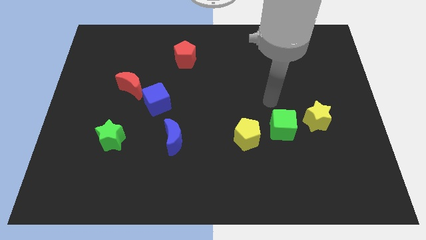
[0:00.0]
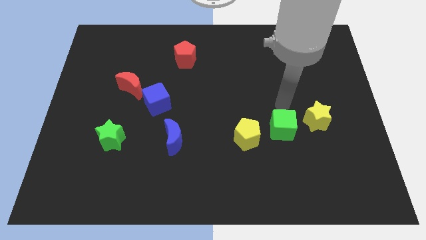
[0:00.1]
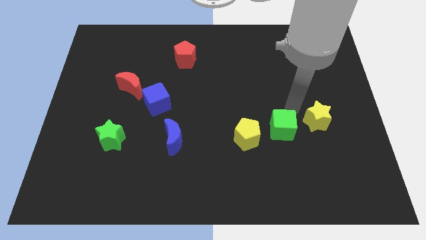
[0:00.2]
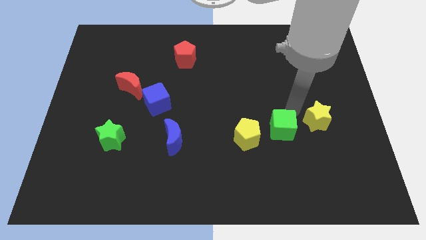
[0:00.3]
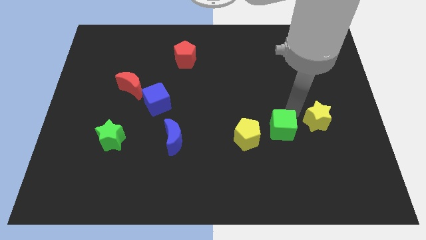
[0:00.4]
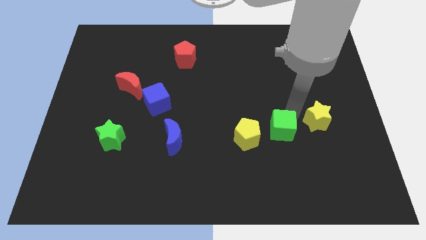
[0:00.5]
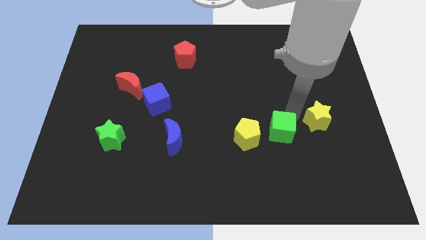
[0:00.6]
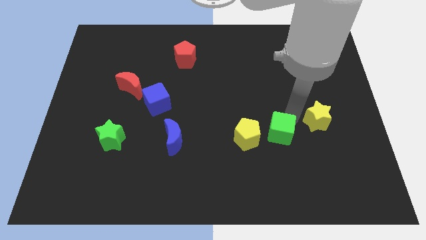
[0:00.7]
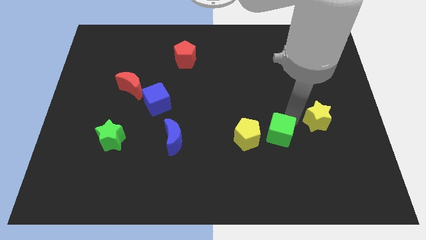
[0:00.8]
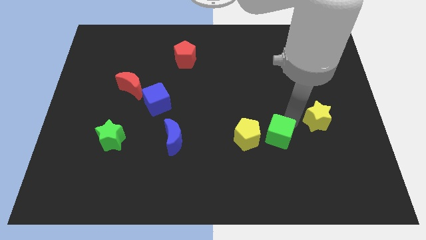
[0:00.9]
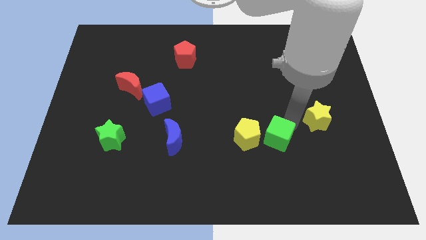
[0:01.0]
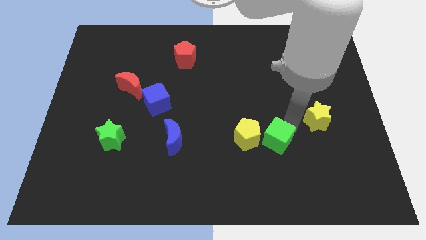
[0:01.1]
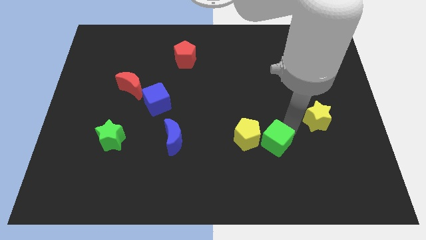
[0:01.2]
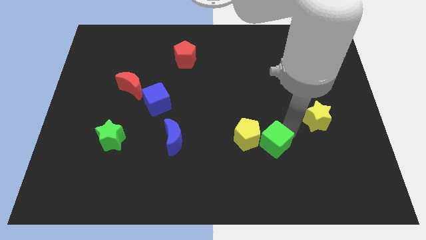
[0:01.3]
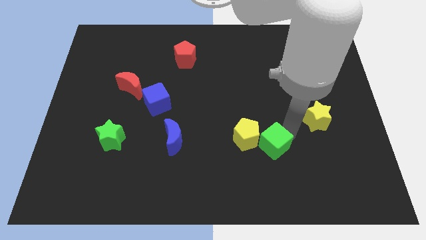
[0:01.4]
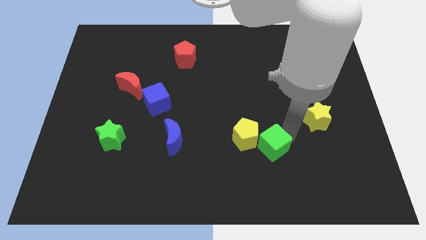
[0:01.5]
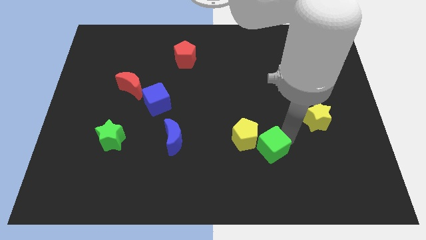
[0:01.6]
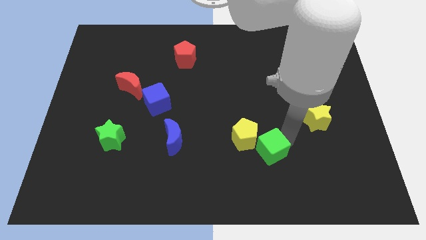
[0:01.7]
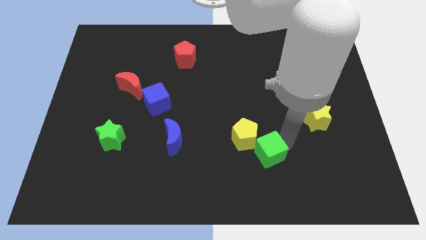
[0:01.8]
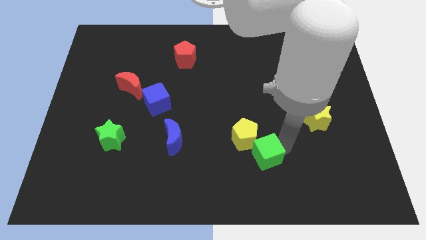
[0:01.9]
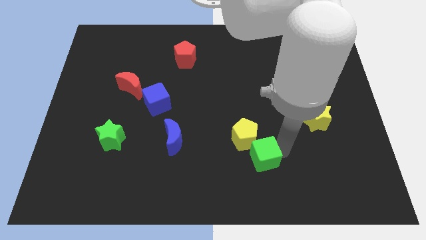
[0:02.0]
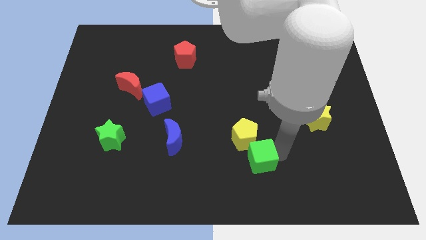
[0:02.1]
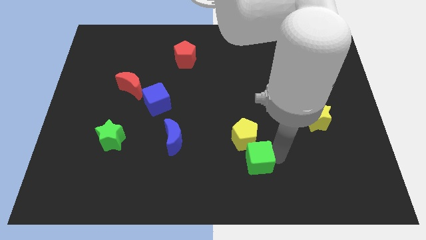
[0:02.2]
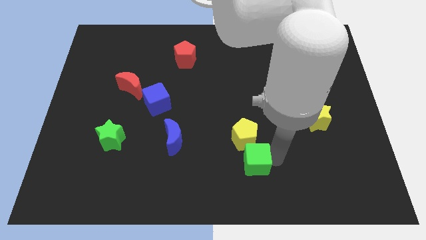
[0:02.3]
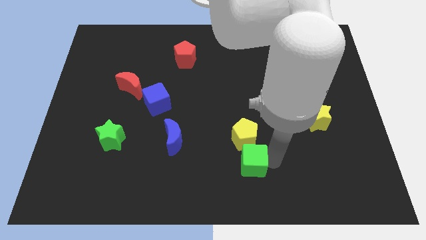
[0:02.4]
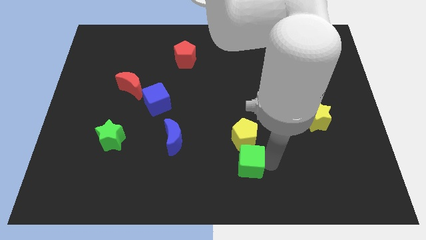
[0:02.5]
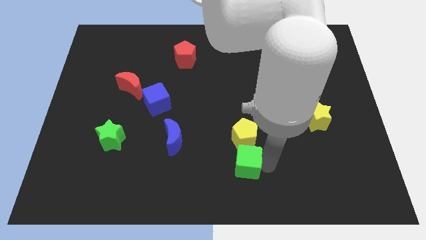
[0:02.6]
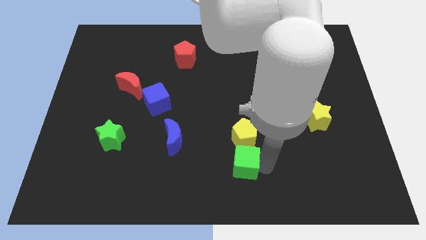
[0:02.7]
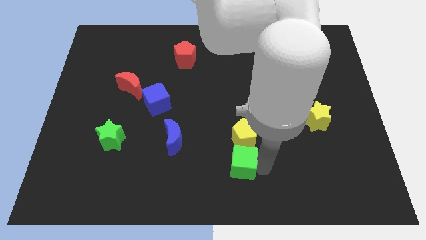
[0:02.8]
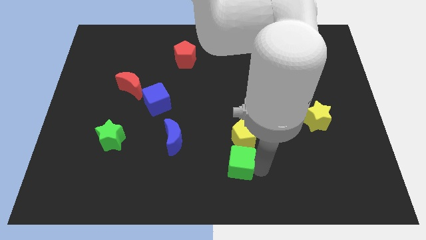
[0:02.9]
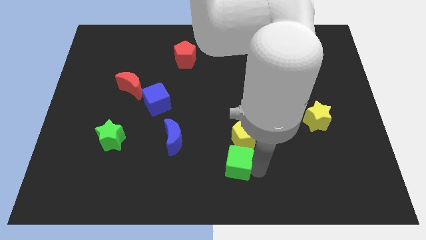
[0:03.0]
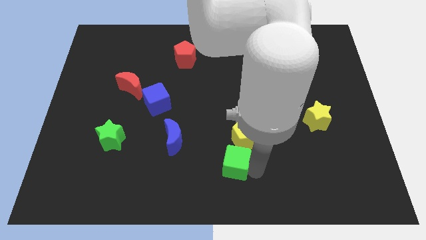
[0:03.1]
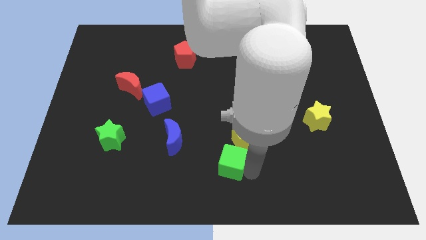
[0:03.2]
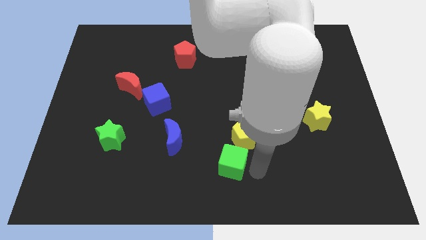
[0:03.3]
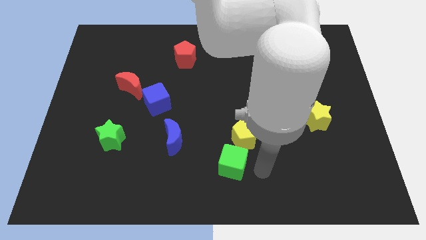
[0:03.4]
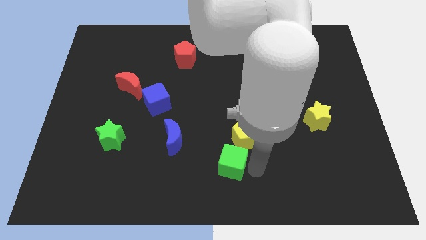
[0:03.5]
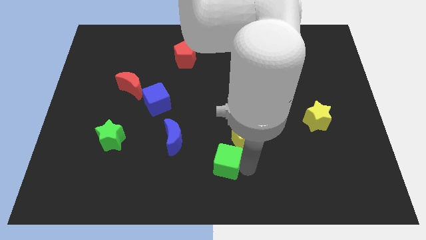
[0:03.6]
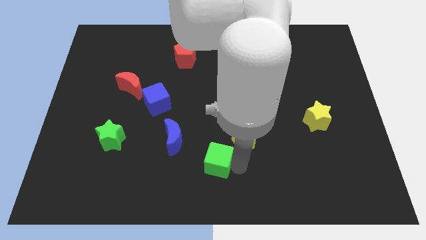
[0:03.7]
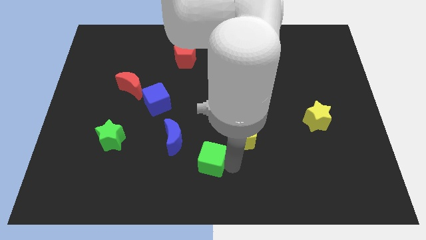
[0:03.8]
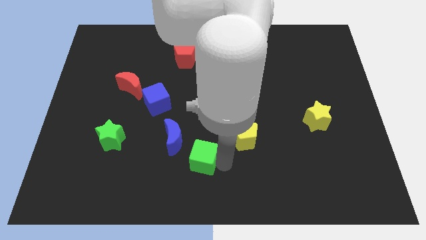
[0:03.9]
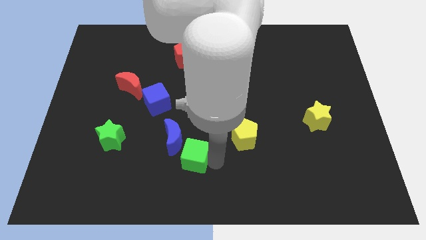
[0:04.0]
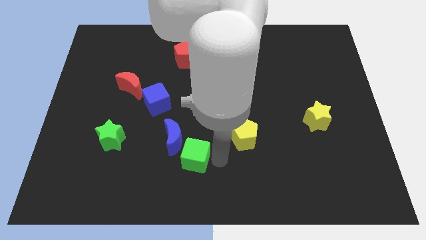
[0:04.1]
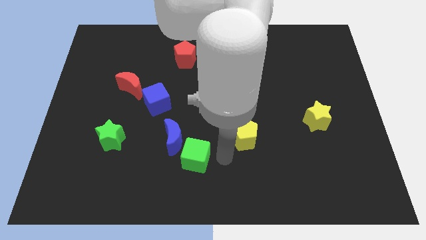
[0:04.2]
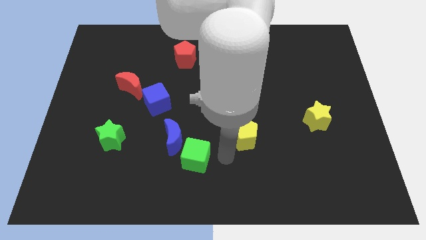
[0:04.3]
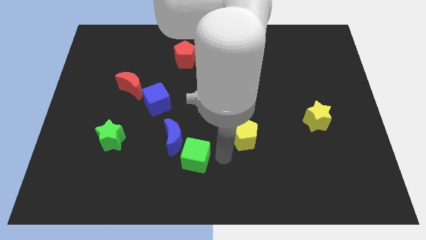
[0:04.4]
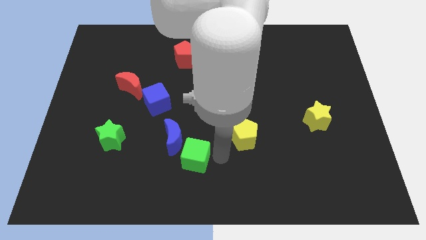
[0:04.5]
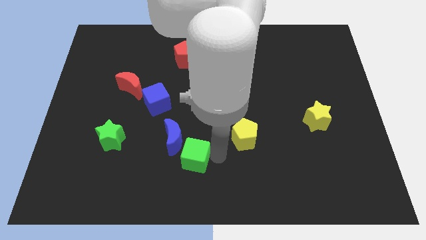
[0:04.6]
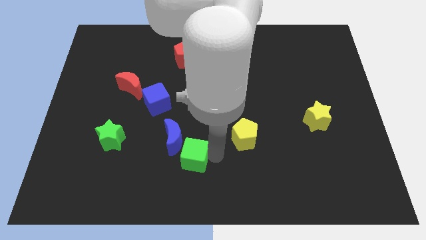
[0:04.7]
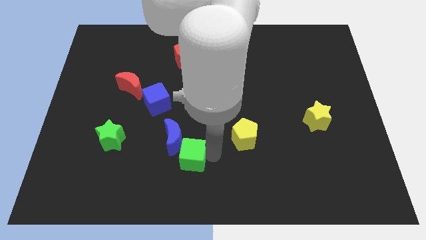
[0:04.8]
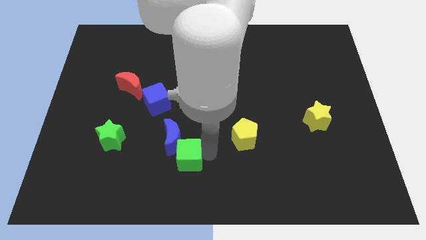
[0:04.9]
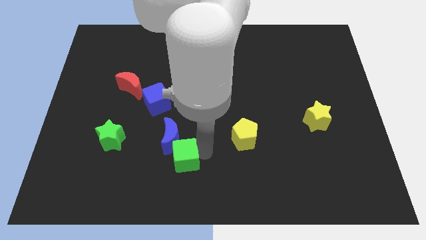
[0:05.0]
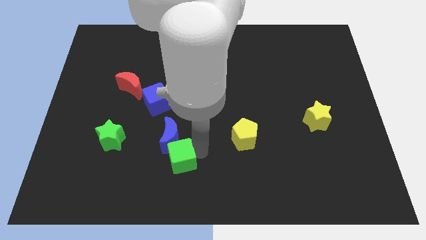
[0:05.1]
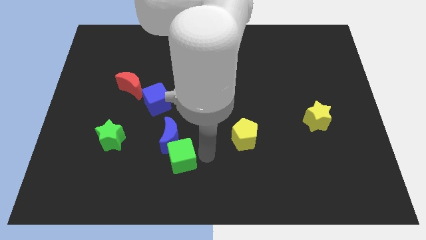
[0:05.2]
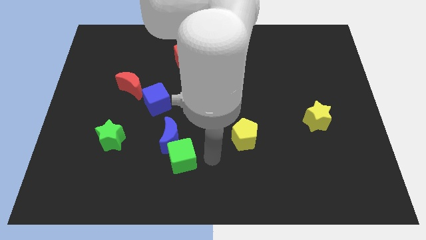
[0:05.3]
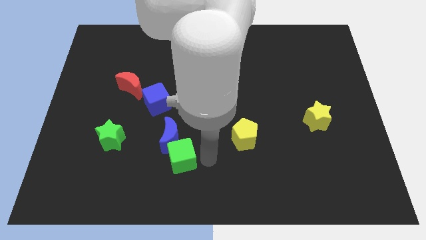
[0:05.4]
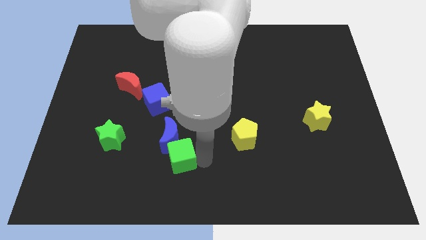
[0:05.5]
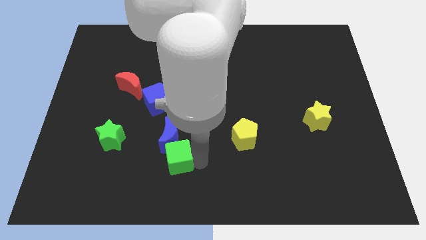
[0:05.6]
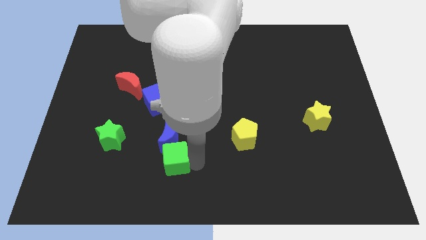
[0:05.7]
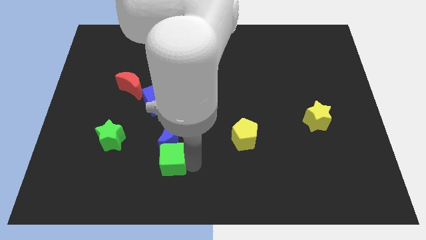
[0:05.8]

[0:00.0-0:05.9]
push the green cube diagonally down and to the left of the blue moon

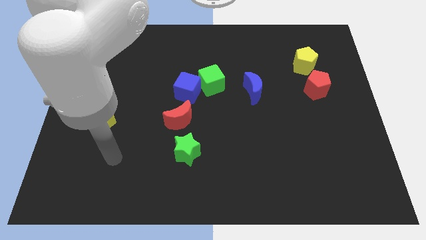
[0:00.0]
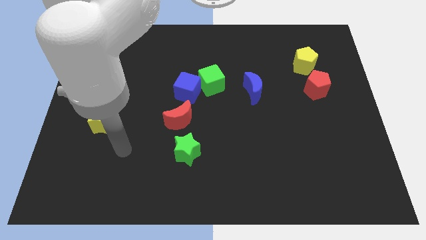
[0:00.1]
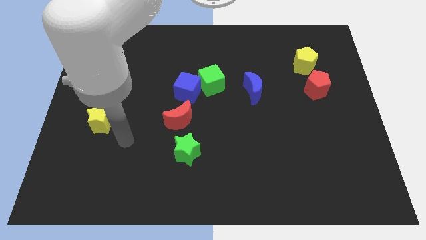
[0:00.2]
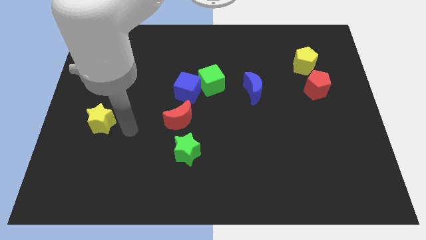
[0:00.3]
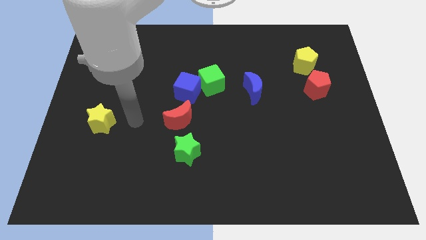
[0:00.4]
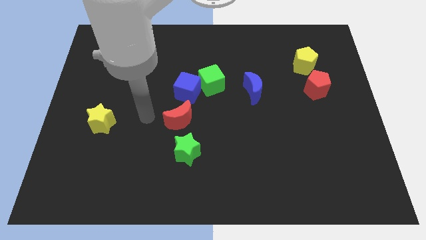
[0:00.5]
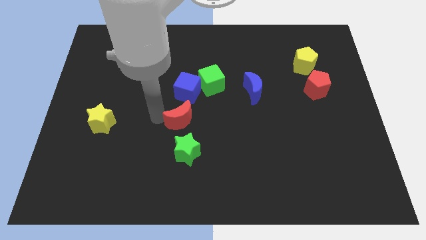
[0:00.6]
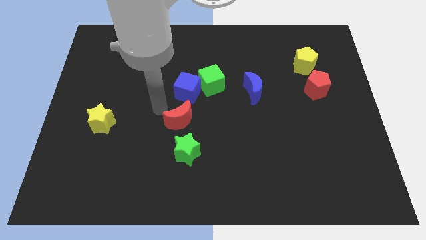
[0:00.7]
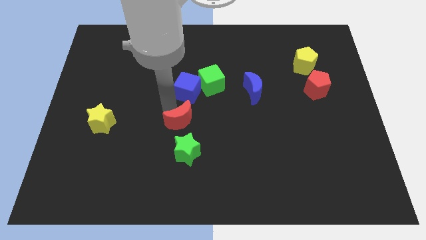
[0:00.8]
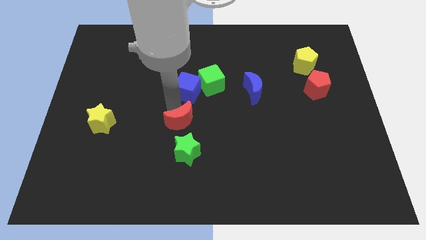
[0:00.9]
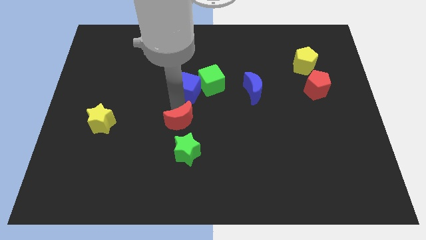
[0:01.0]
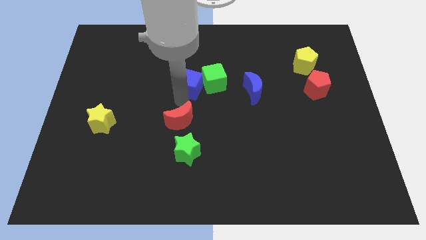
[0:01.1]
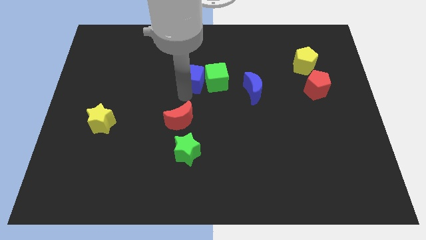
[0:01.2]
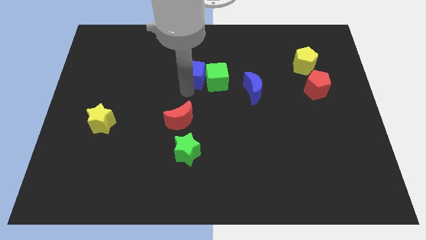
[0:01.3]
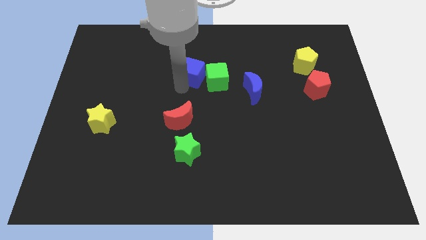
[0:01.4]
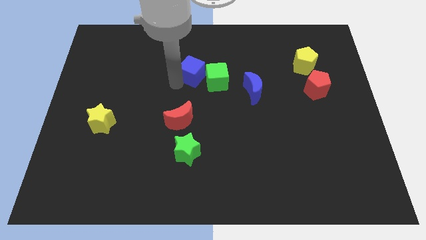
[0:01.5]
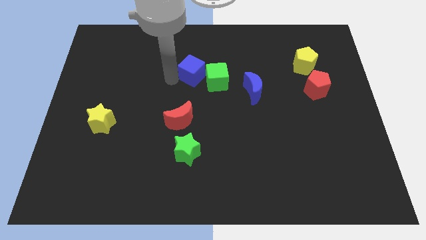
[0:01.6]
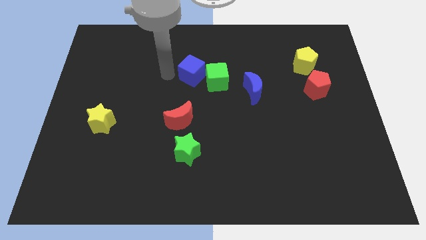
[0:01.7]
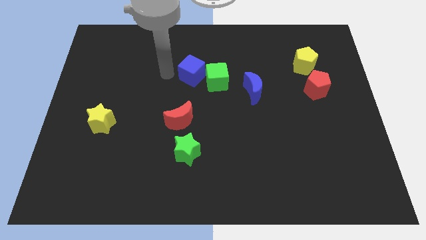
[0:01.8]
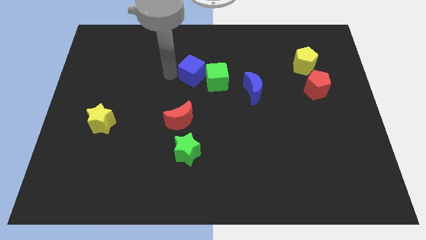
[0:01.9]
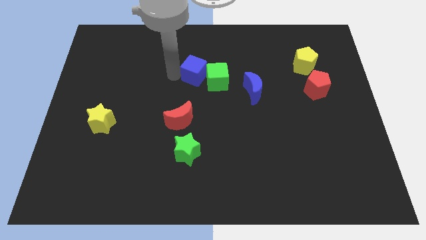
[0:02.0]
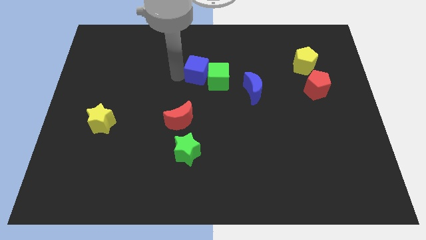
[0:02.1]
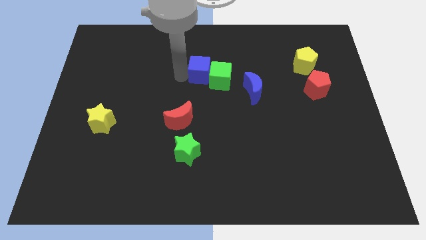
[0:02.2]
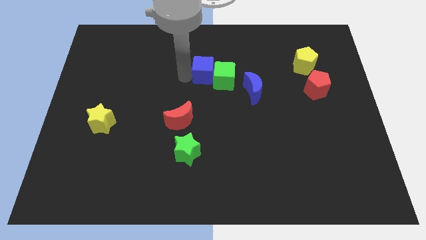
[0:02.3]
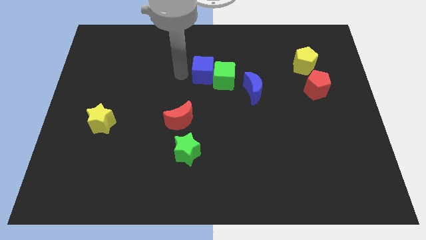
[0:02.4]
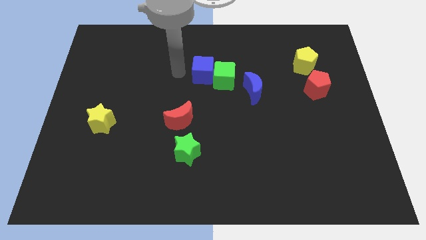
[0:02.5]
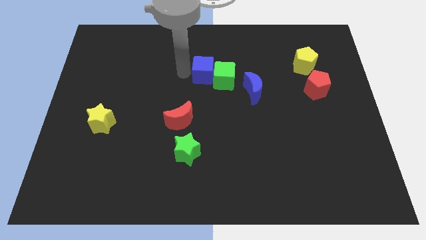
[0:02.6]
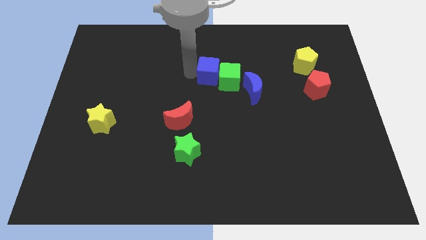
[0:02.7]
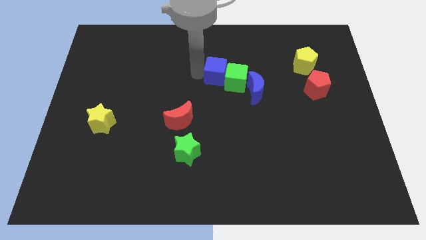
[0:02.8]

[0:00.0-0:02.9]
put the blue cube diagonally up and to the left of the blue moon
